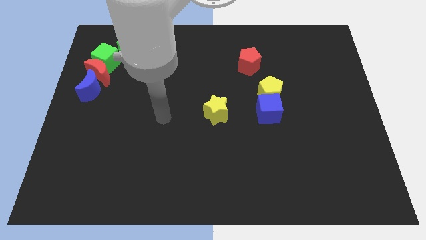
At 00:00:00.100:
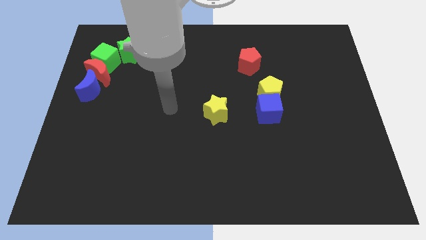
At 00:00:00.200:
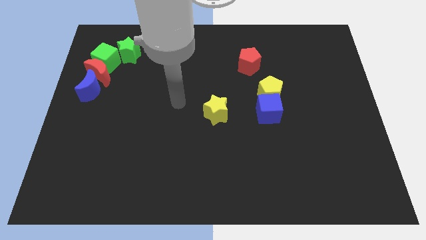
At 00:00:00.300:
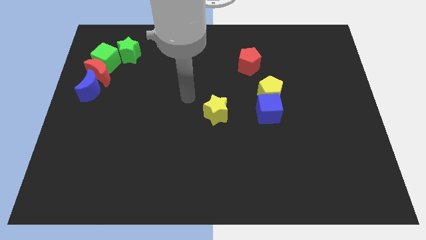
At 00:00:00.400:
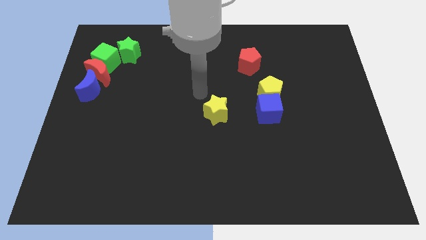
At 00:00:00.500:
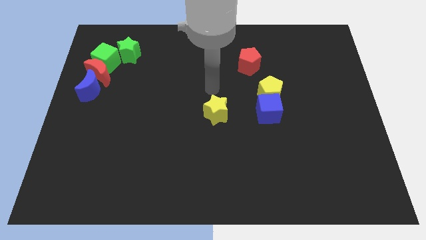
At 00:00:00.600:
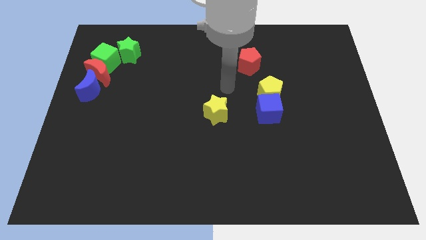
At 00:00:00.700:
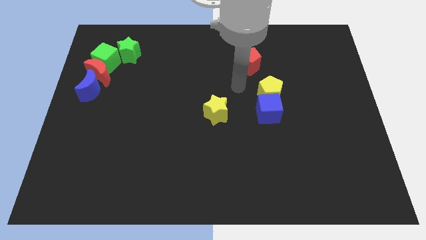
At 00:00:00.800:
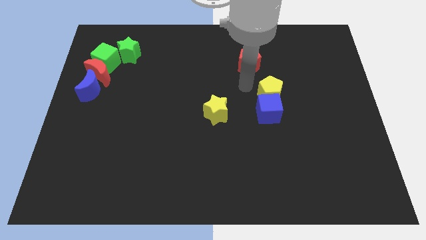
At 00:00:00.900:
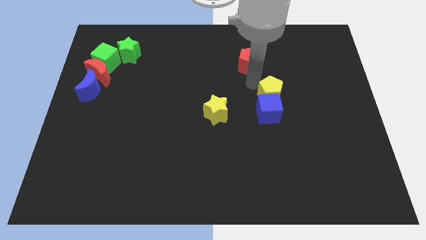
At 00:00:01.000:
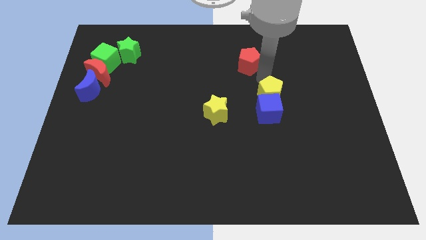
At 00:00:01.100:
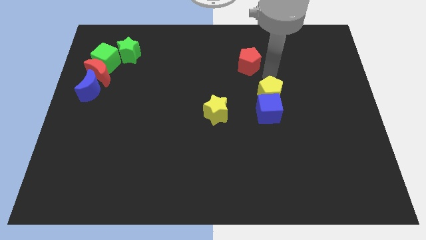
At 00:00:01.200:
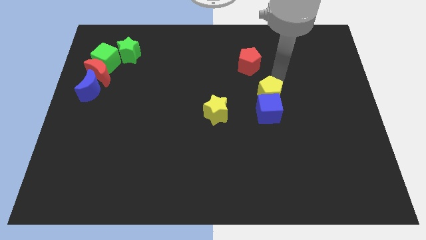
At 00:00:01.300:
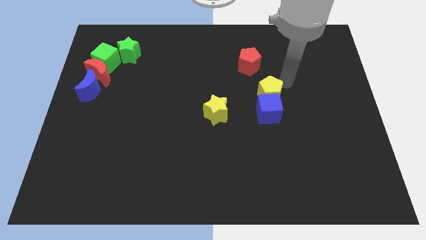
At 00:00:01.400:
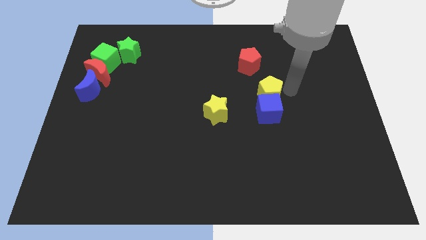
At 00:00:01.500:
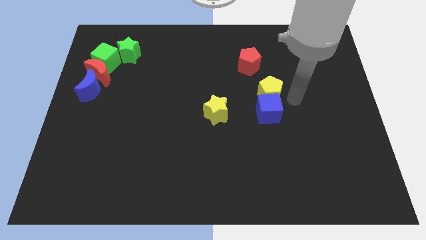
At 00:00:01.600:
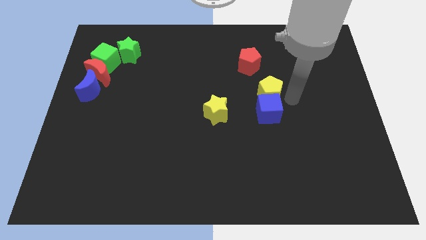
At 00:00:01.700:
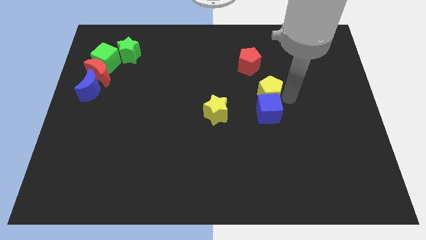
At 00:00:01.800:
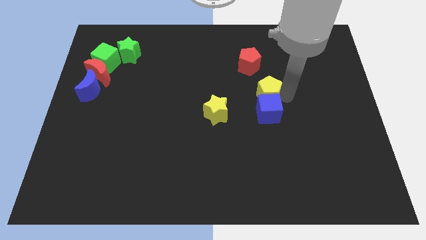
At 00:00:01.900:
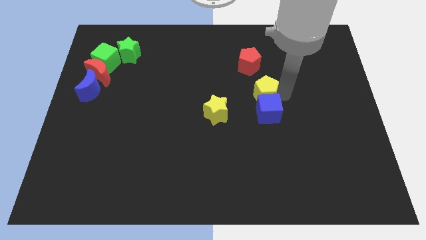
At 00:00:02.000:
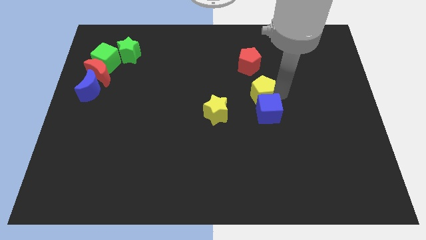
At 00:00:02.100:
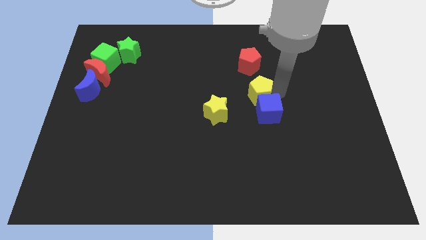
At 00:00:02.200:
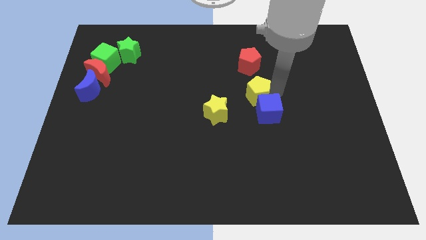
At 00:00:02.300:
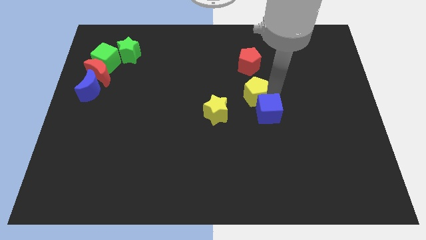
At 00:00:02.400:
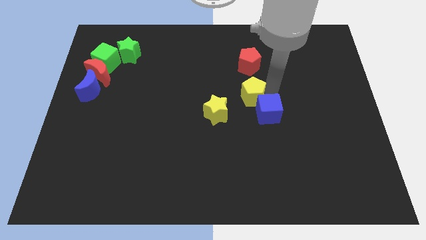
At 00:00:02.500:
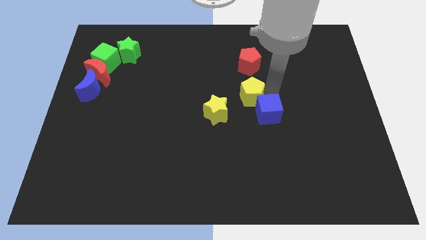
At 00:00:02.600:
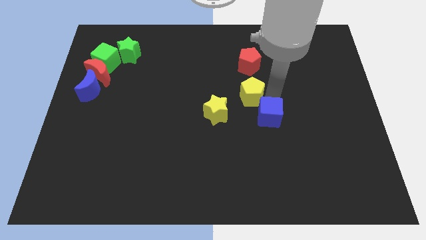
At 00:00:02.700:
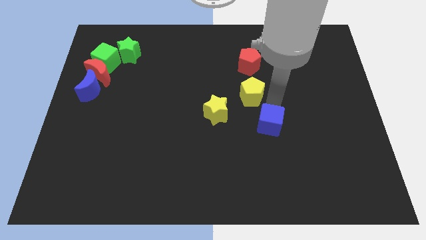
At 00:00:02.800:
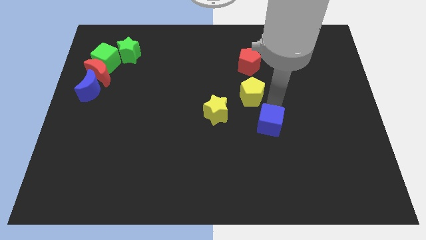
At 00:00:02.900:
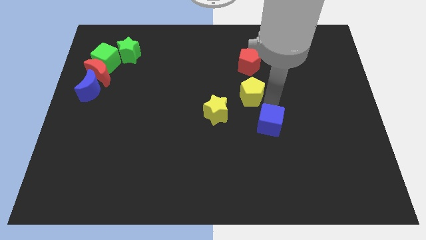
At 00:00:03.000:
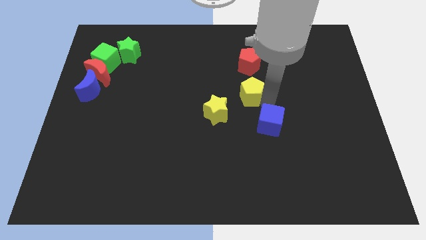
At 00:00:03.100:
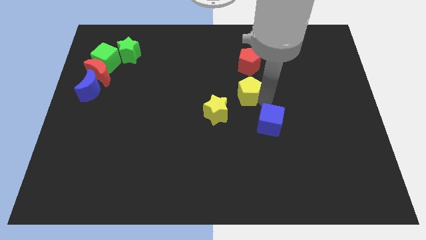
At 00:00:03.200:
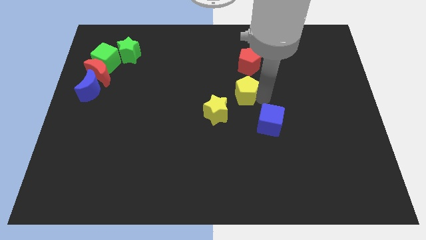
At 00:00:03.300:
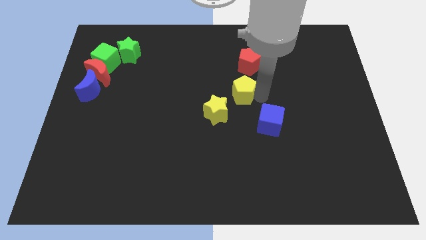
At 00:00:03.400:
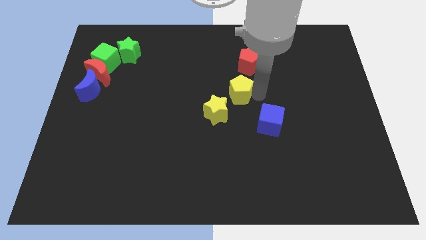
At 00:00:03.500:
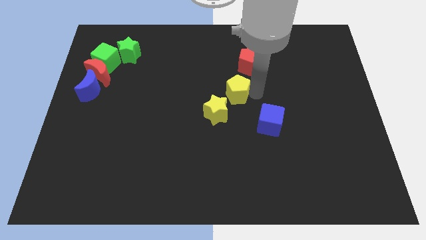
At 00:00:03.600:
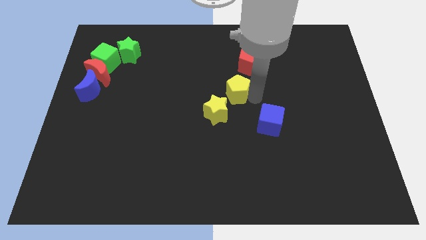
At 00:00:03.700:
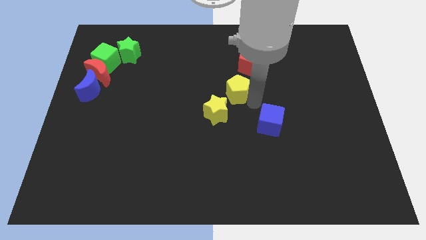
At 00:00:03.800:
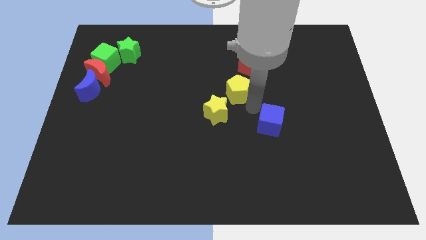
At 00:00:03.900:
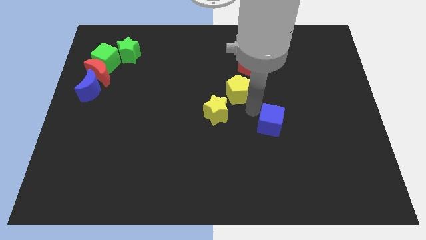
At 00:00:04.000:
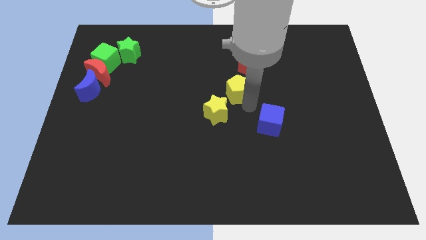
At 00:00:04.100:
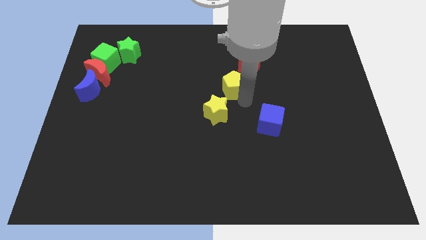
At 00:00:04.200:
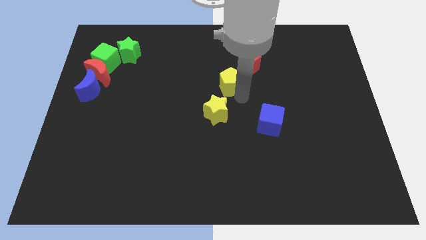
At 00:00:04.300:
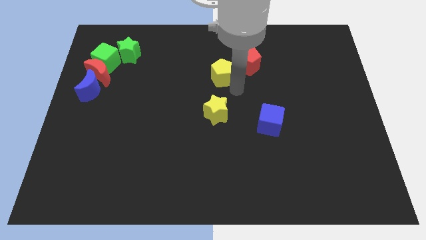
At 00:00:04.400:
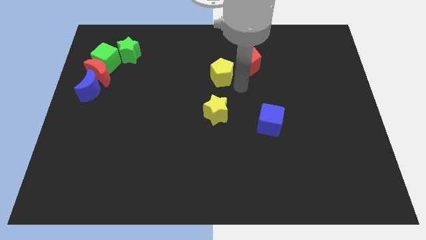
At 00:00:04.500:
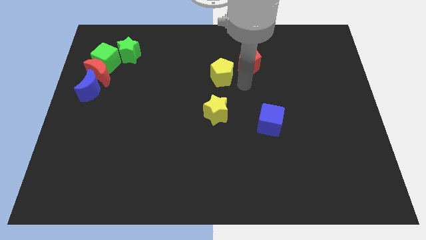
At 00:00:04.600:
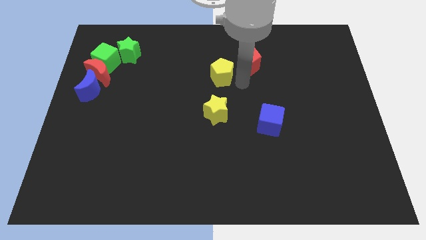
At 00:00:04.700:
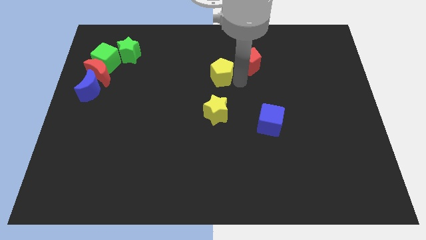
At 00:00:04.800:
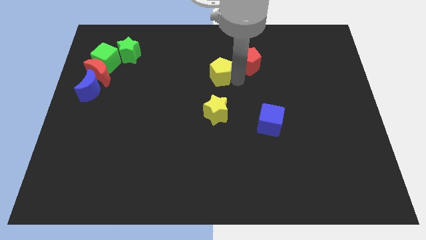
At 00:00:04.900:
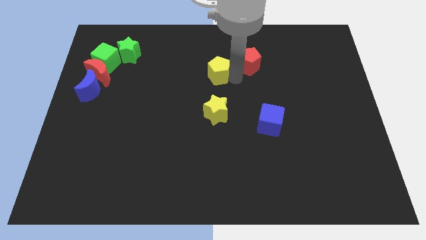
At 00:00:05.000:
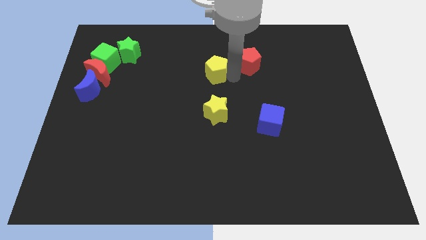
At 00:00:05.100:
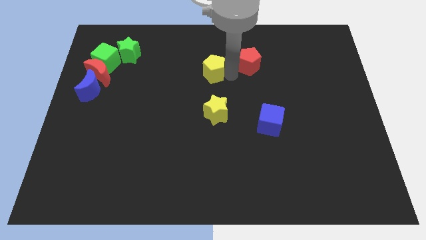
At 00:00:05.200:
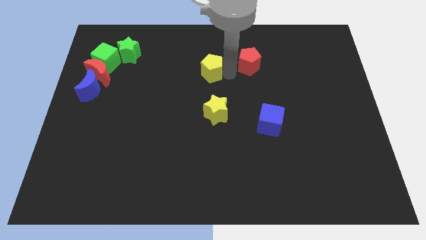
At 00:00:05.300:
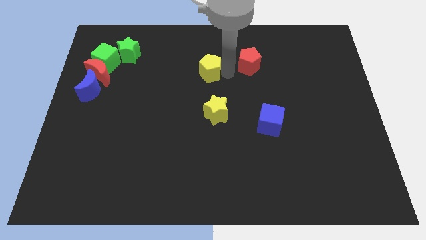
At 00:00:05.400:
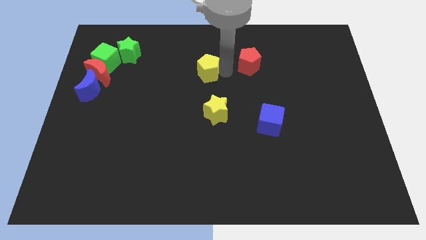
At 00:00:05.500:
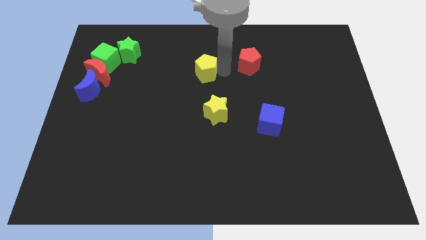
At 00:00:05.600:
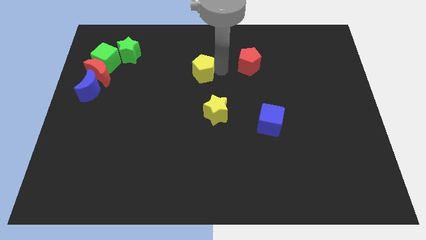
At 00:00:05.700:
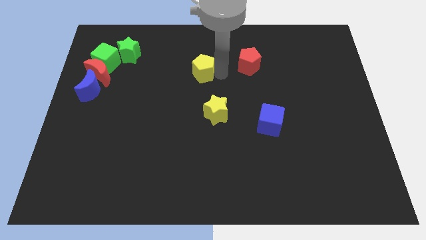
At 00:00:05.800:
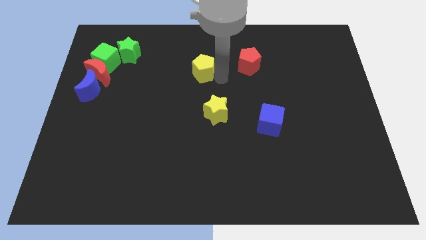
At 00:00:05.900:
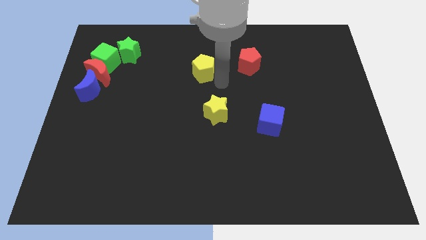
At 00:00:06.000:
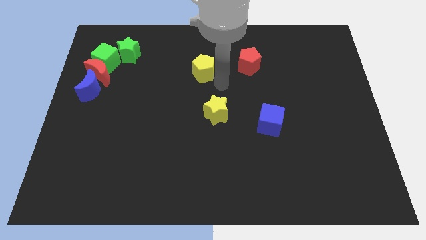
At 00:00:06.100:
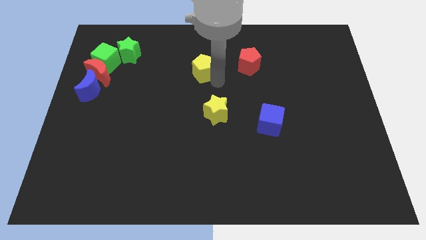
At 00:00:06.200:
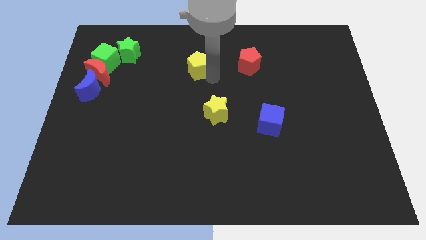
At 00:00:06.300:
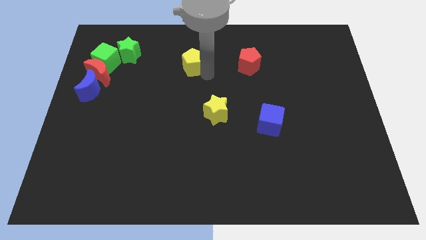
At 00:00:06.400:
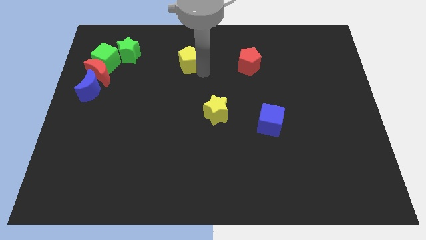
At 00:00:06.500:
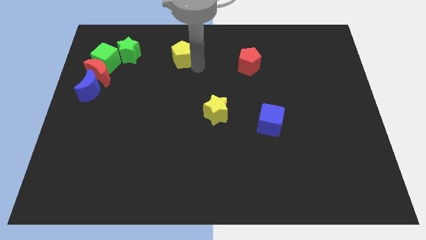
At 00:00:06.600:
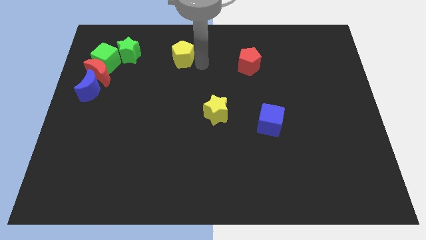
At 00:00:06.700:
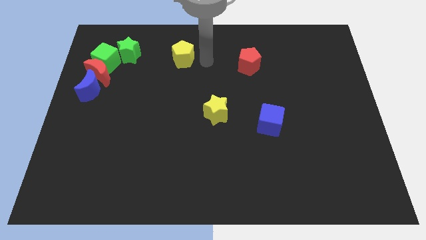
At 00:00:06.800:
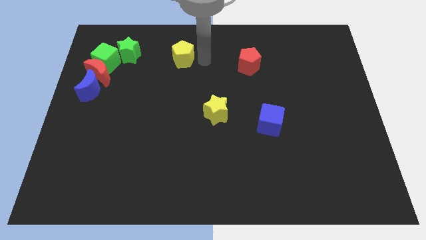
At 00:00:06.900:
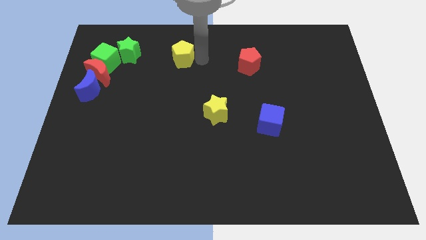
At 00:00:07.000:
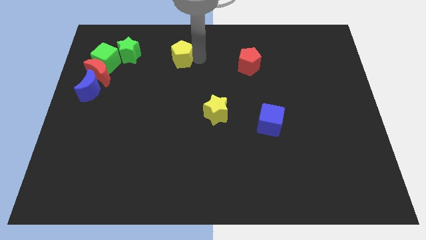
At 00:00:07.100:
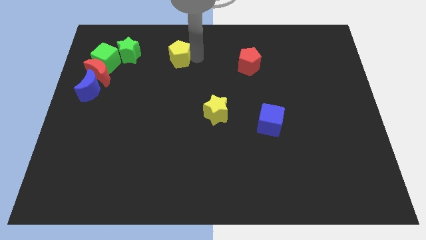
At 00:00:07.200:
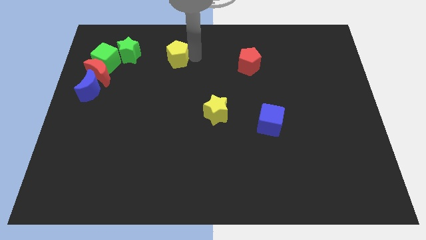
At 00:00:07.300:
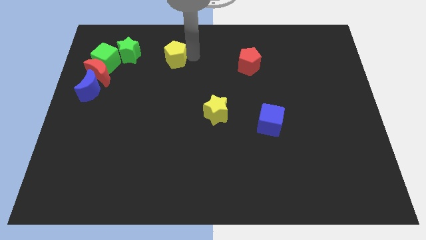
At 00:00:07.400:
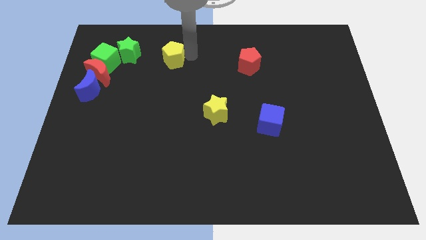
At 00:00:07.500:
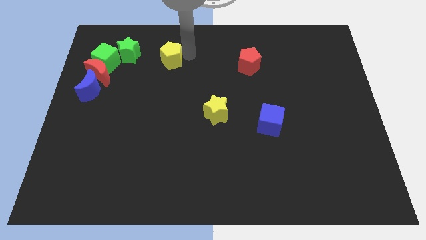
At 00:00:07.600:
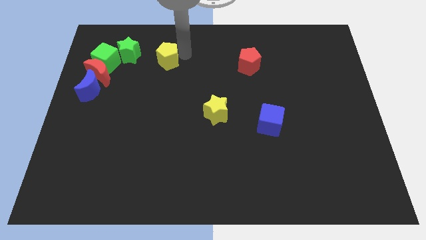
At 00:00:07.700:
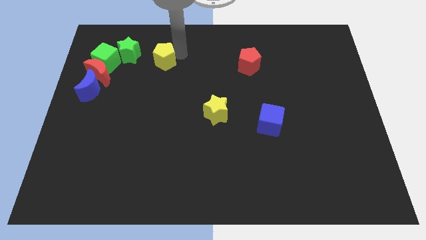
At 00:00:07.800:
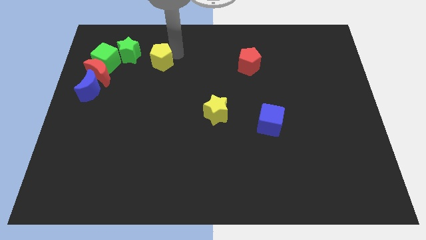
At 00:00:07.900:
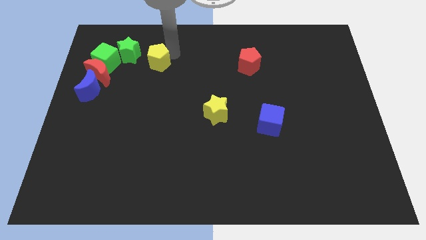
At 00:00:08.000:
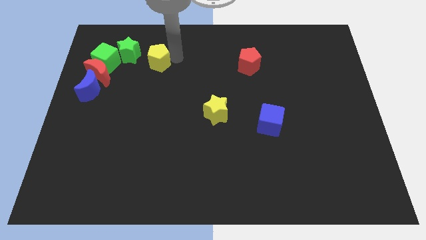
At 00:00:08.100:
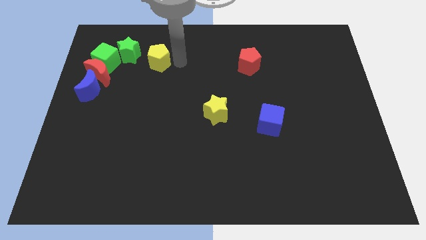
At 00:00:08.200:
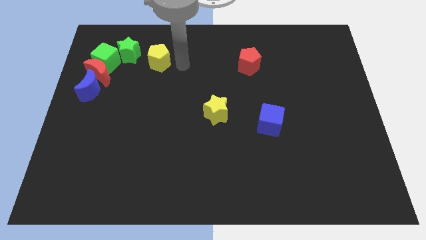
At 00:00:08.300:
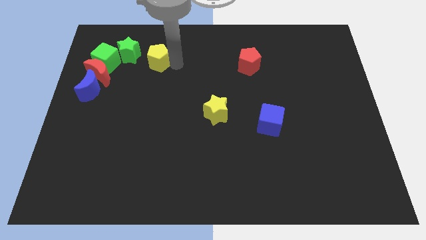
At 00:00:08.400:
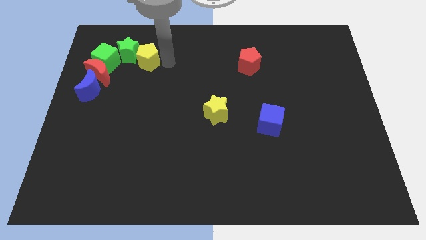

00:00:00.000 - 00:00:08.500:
put the yellow pentagon next to the green star
